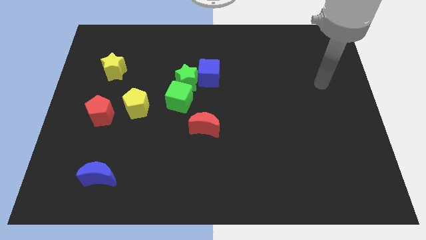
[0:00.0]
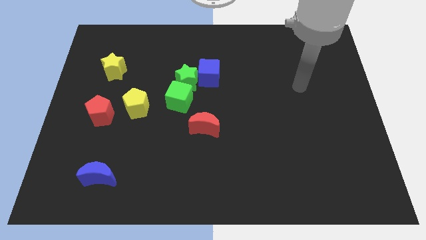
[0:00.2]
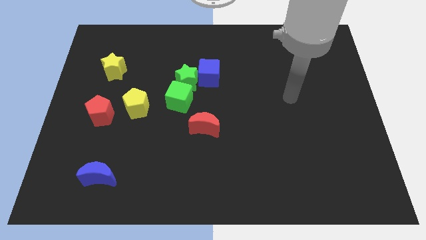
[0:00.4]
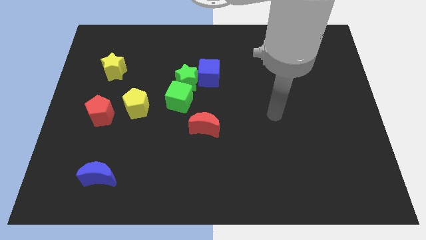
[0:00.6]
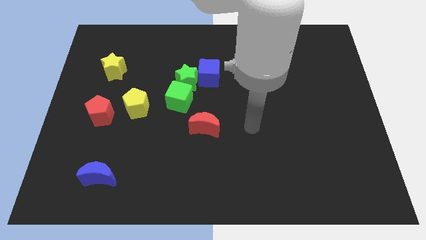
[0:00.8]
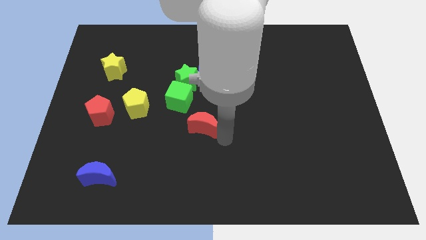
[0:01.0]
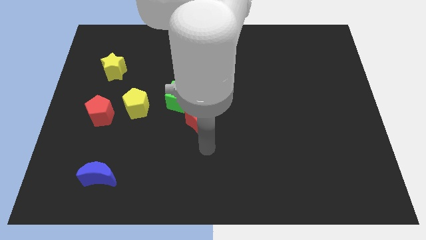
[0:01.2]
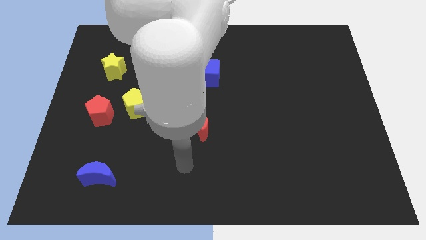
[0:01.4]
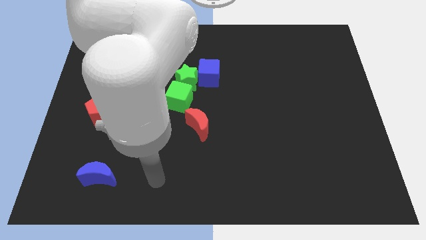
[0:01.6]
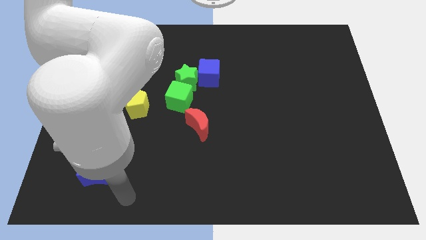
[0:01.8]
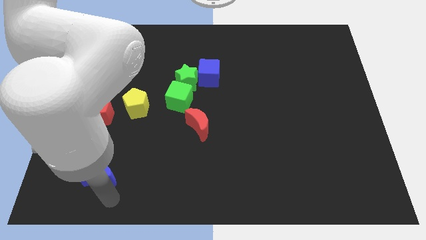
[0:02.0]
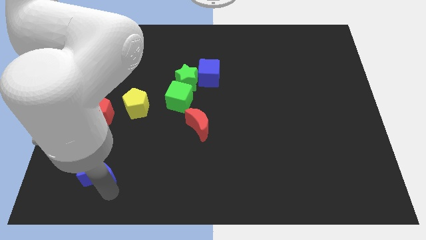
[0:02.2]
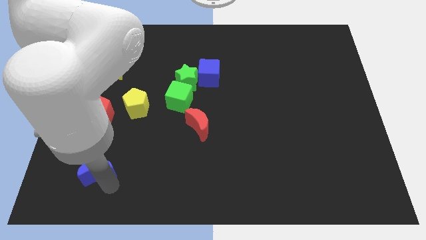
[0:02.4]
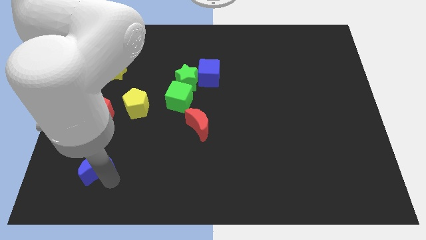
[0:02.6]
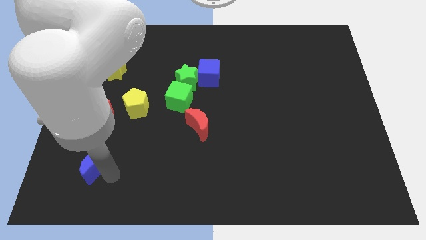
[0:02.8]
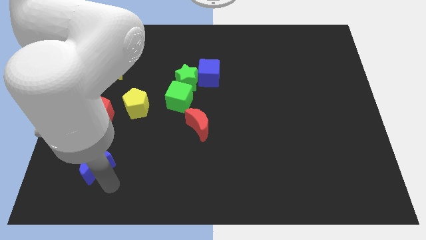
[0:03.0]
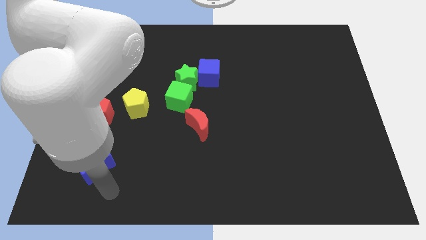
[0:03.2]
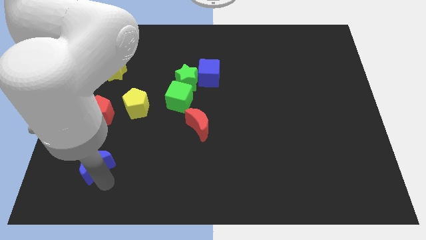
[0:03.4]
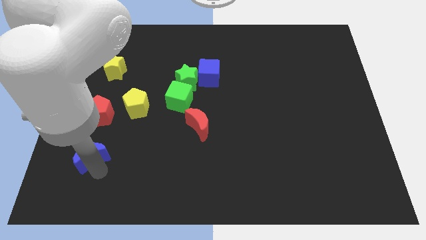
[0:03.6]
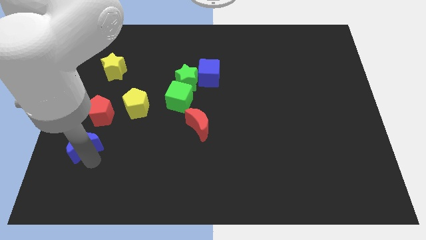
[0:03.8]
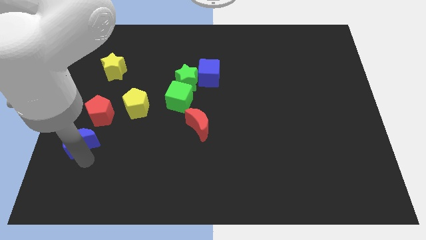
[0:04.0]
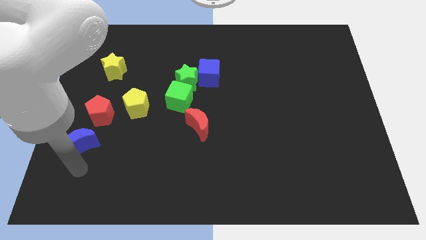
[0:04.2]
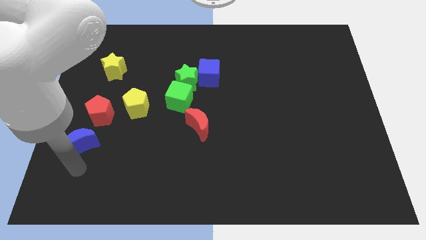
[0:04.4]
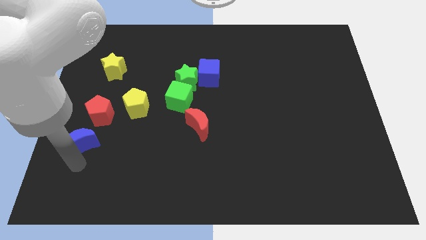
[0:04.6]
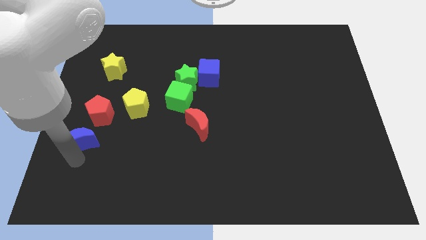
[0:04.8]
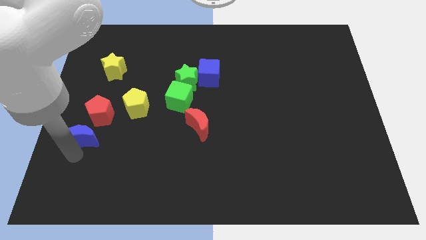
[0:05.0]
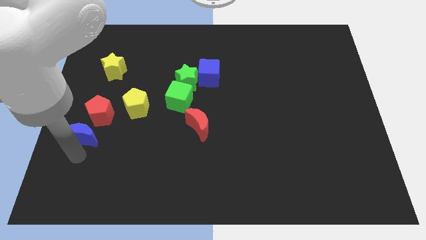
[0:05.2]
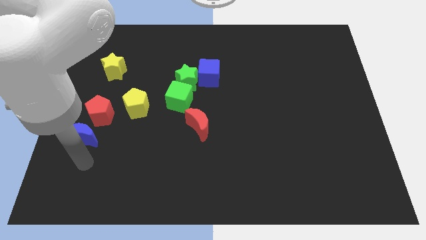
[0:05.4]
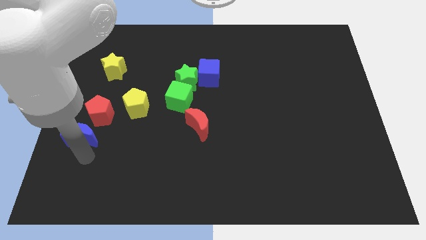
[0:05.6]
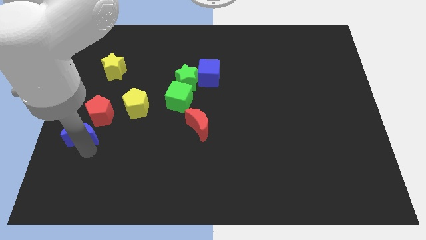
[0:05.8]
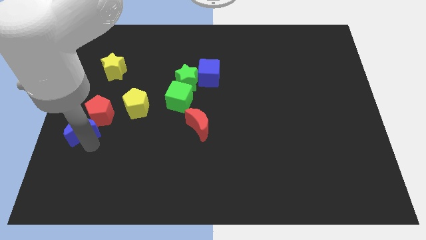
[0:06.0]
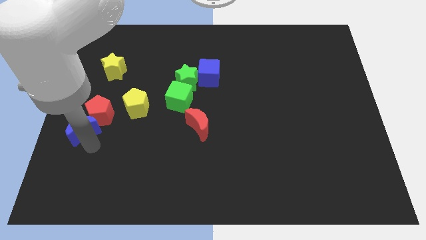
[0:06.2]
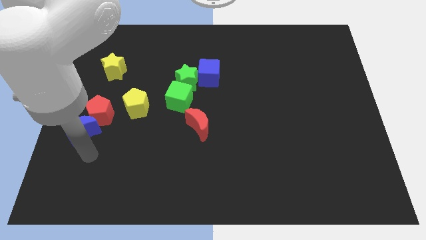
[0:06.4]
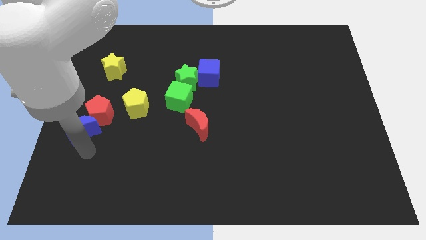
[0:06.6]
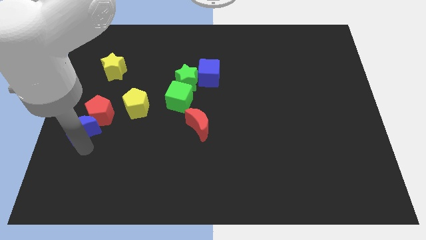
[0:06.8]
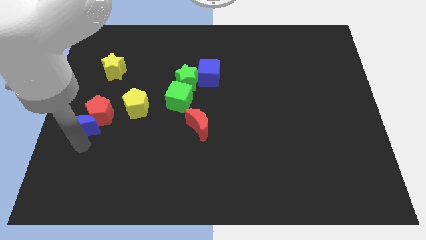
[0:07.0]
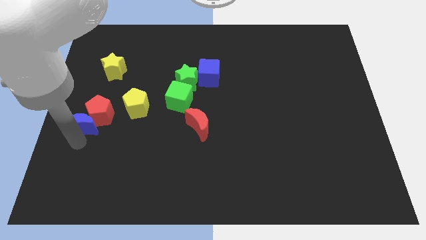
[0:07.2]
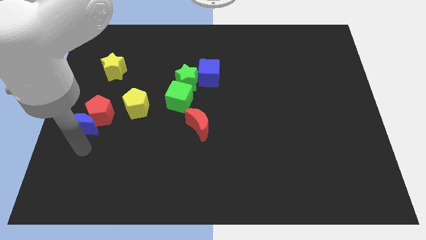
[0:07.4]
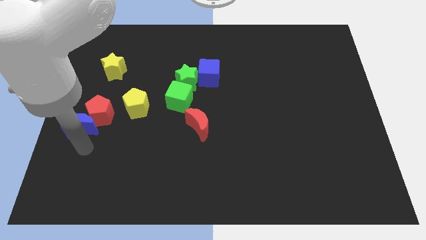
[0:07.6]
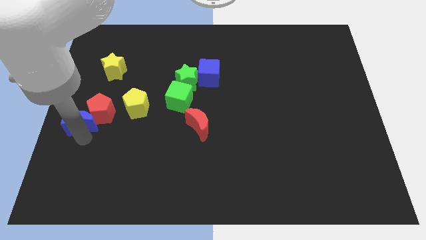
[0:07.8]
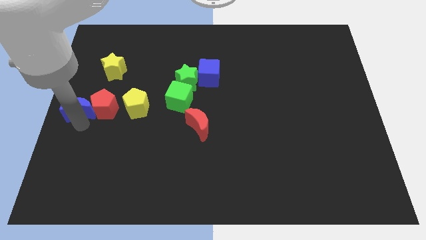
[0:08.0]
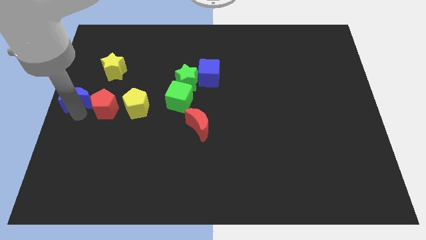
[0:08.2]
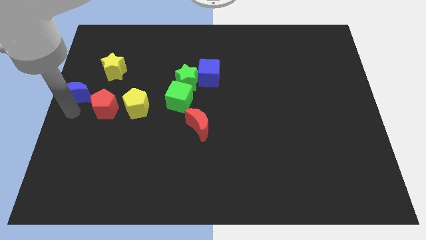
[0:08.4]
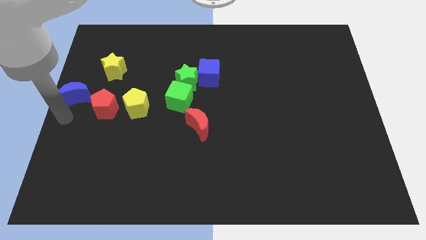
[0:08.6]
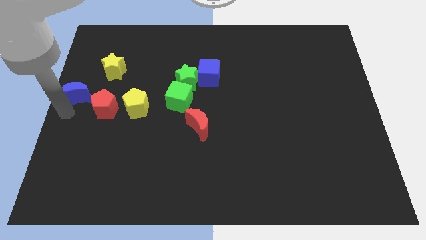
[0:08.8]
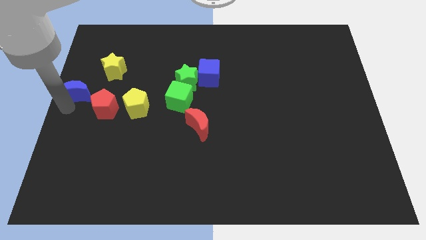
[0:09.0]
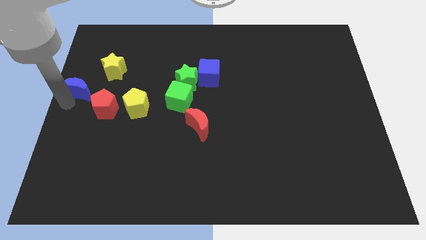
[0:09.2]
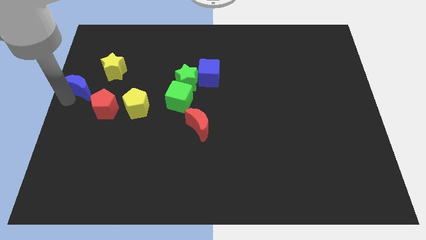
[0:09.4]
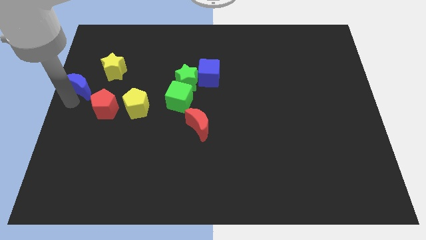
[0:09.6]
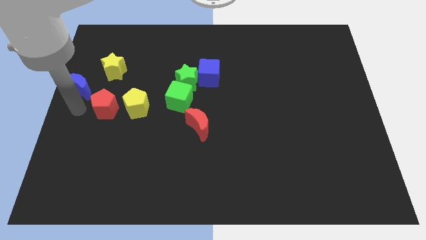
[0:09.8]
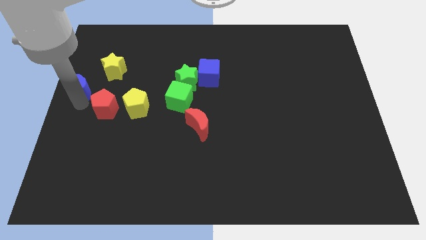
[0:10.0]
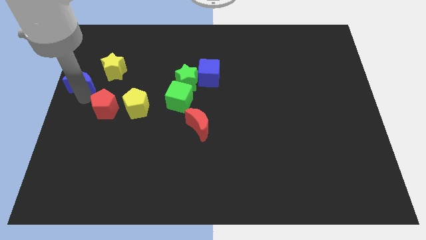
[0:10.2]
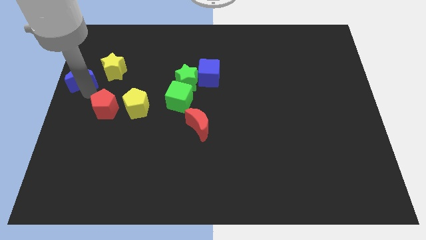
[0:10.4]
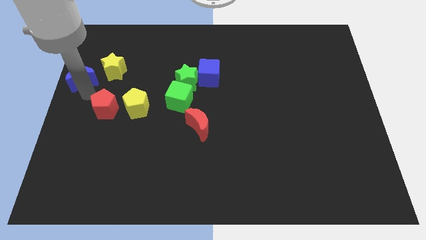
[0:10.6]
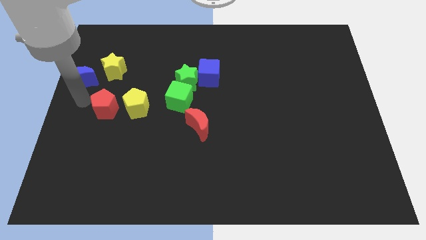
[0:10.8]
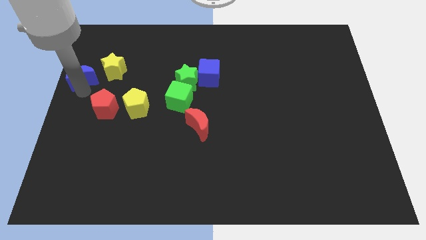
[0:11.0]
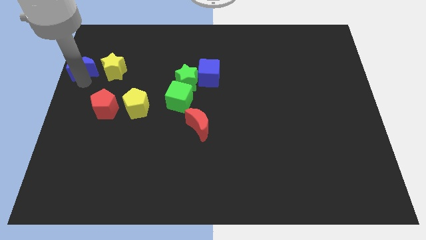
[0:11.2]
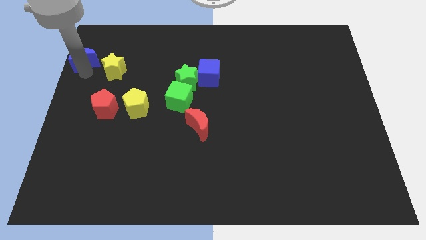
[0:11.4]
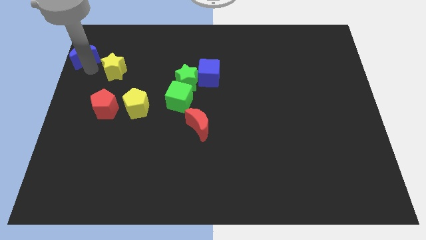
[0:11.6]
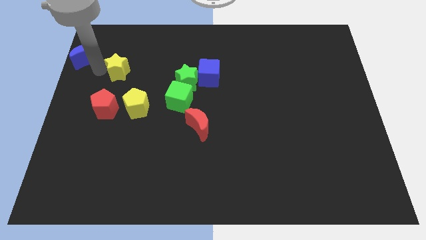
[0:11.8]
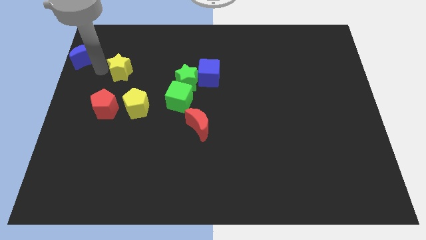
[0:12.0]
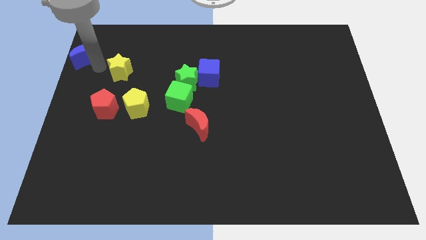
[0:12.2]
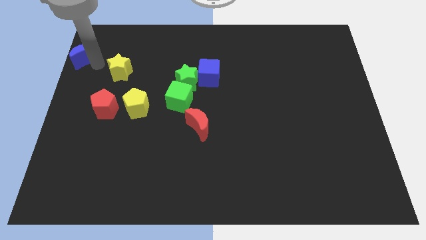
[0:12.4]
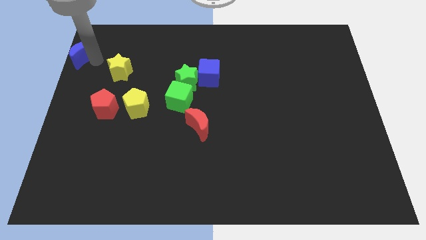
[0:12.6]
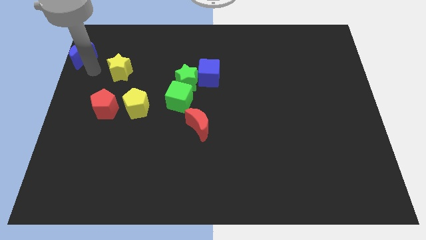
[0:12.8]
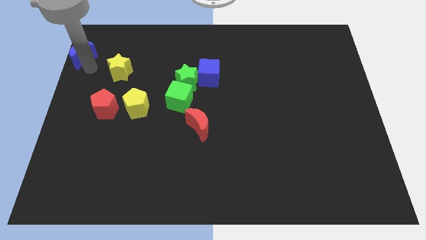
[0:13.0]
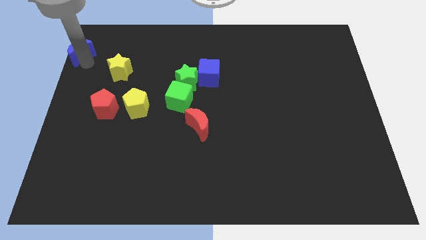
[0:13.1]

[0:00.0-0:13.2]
move the blue moon to the top left of the board

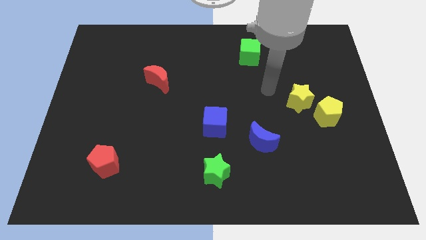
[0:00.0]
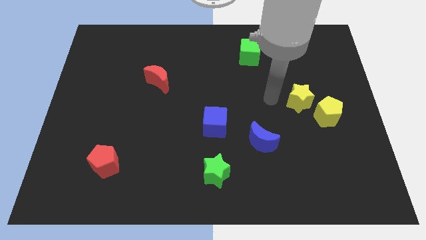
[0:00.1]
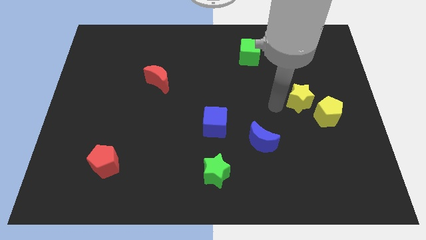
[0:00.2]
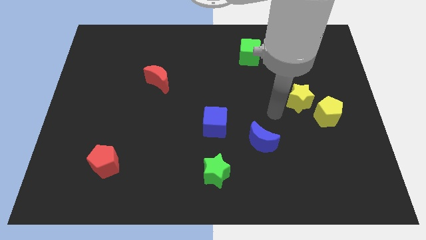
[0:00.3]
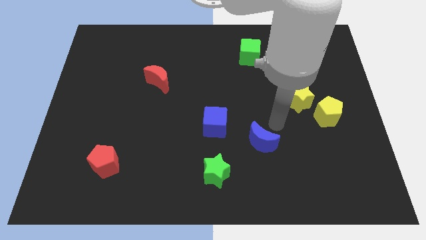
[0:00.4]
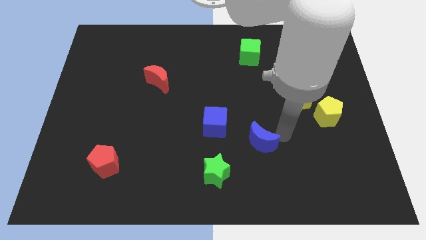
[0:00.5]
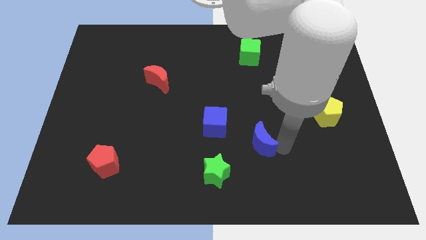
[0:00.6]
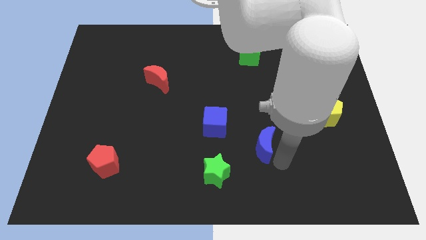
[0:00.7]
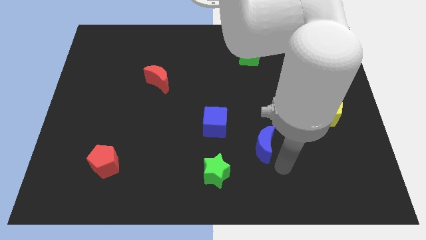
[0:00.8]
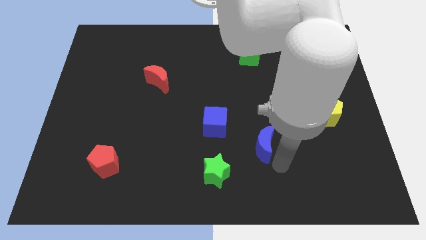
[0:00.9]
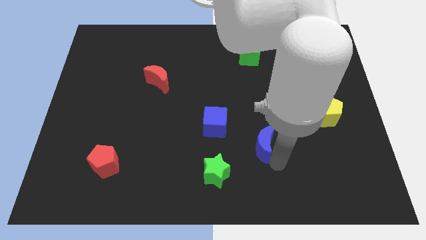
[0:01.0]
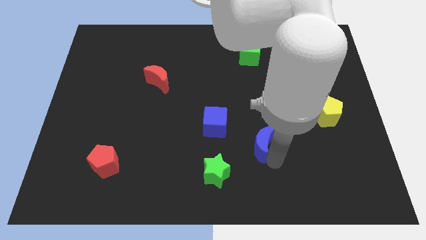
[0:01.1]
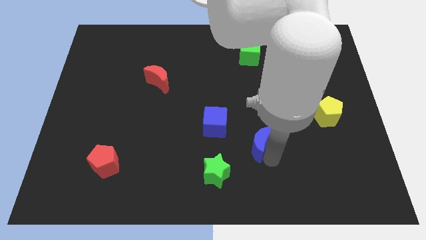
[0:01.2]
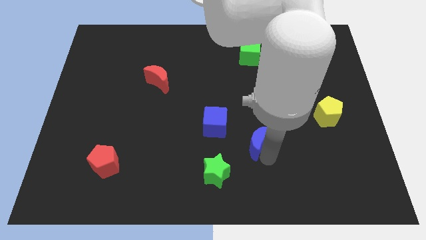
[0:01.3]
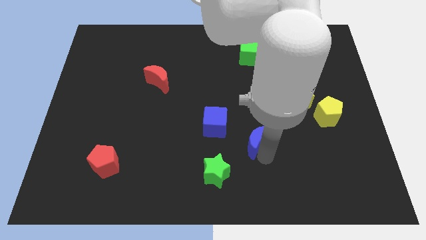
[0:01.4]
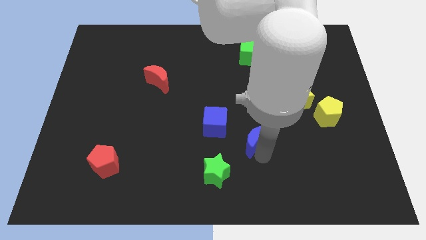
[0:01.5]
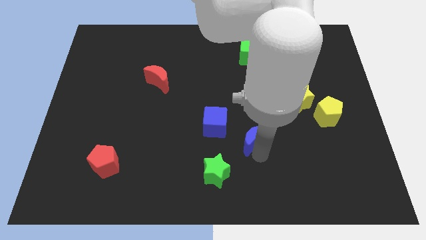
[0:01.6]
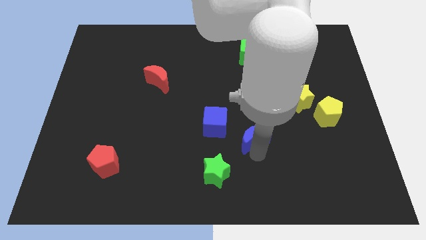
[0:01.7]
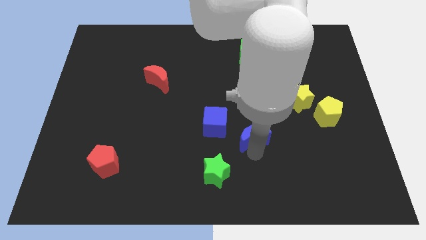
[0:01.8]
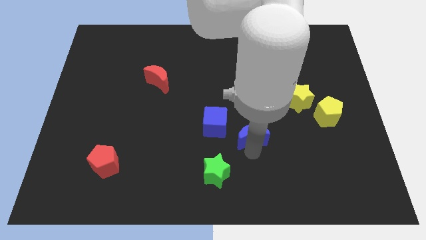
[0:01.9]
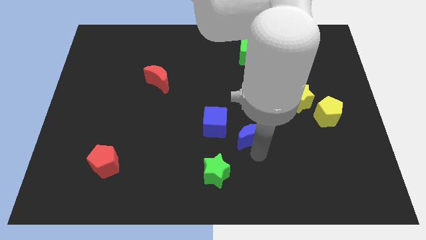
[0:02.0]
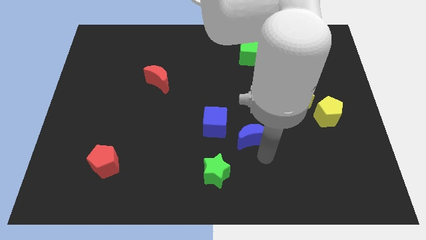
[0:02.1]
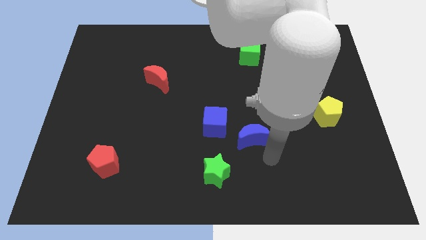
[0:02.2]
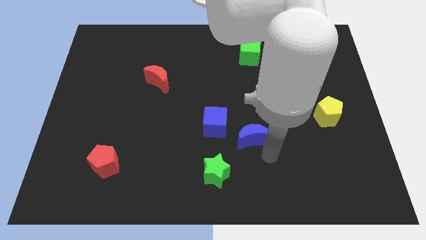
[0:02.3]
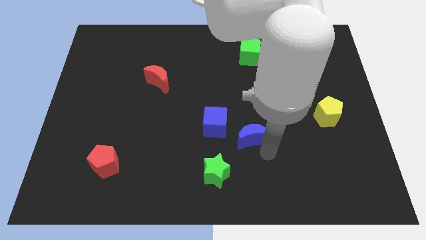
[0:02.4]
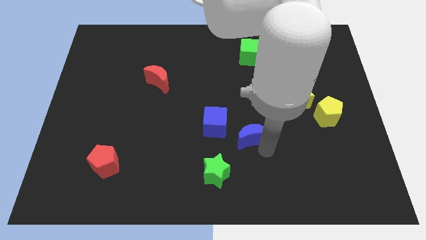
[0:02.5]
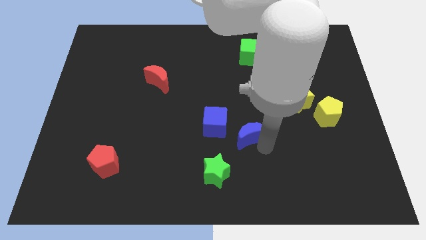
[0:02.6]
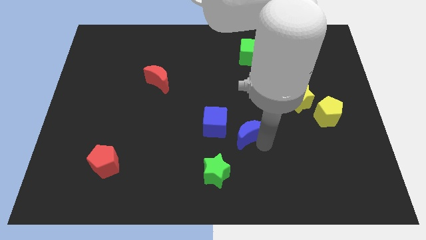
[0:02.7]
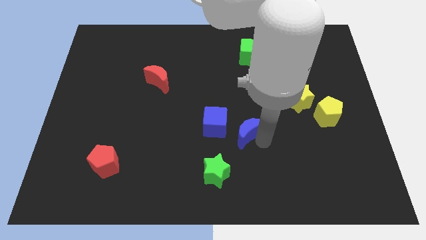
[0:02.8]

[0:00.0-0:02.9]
move the blue moon to the middle
